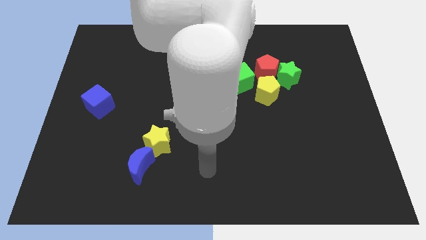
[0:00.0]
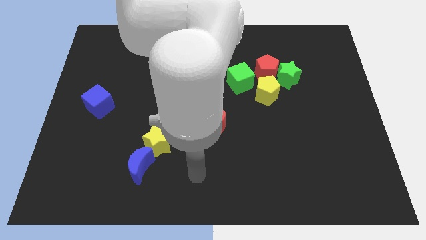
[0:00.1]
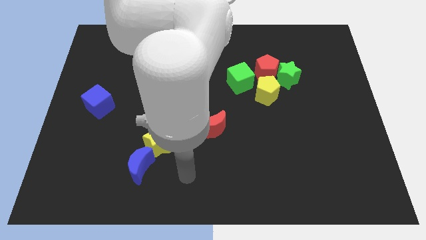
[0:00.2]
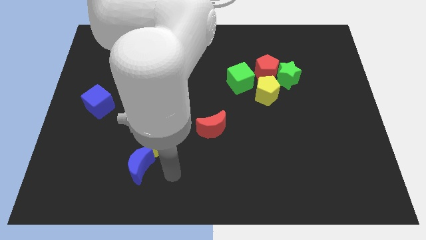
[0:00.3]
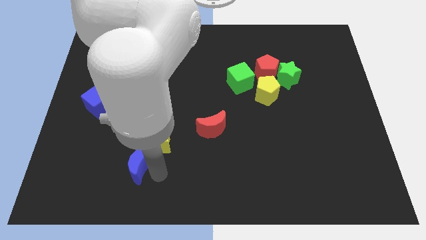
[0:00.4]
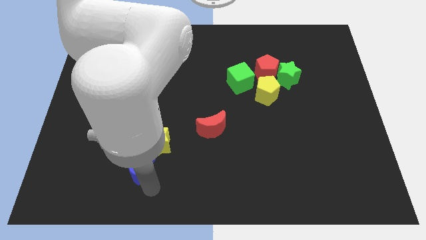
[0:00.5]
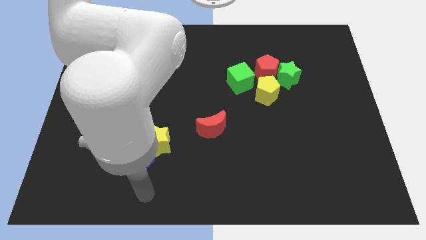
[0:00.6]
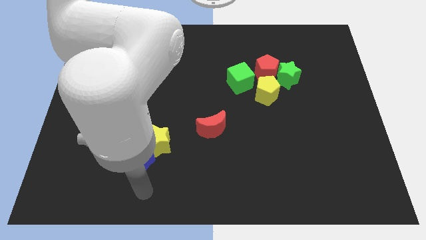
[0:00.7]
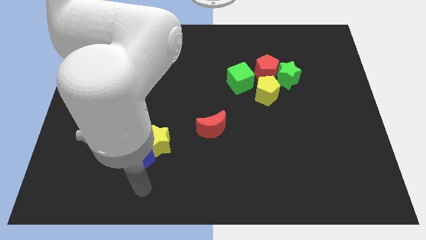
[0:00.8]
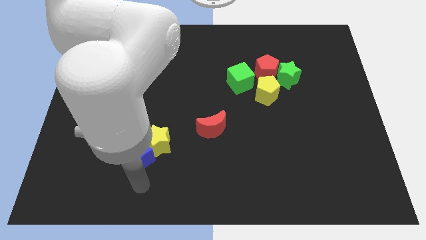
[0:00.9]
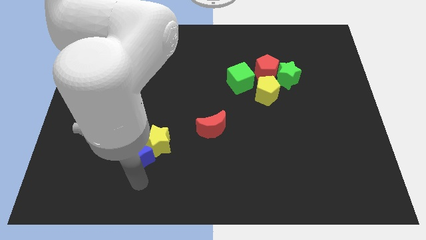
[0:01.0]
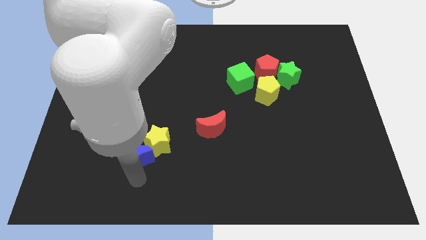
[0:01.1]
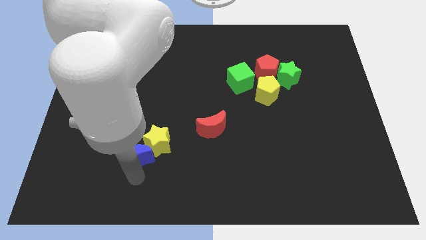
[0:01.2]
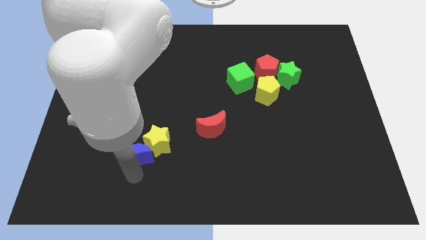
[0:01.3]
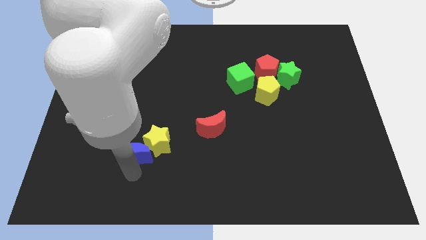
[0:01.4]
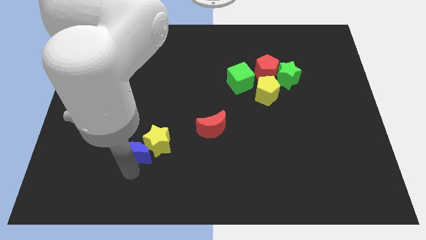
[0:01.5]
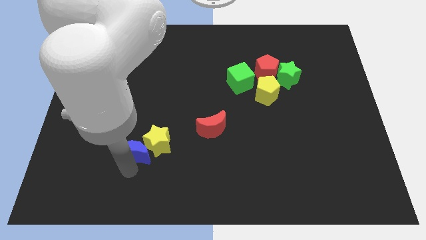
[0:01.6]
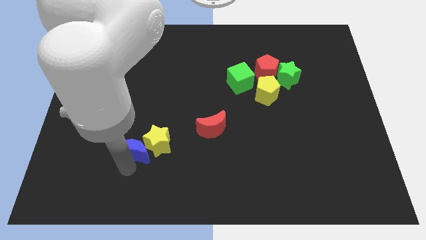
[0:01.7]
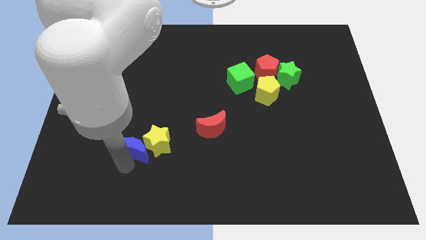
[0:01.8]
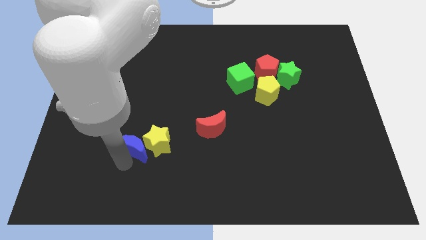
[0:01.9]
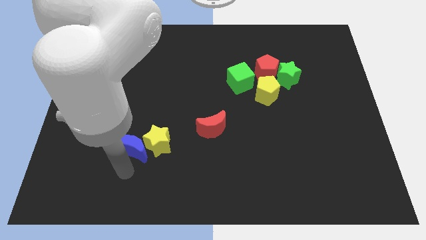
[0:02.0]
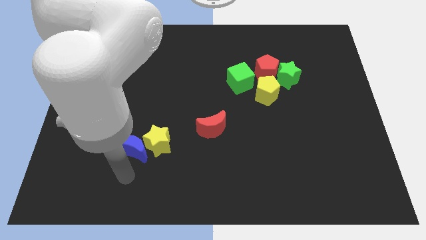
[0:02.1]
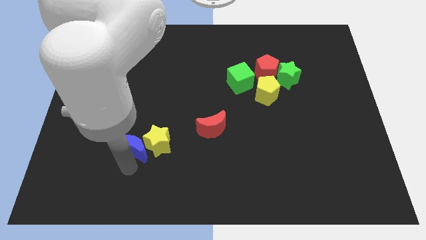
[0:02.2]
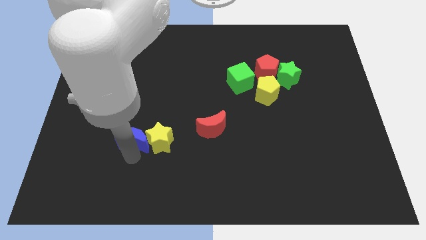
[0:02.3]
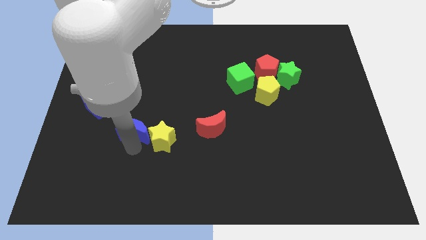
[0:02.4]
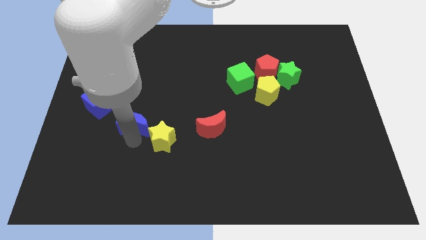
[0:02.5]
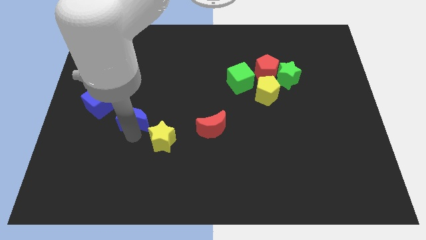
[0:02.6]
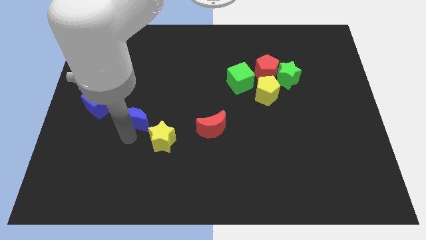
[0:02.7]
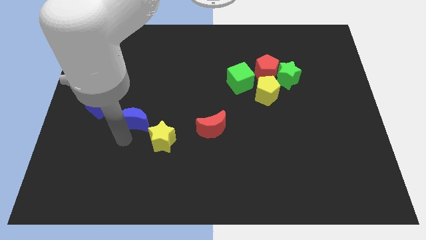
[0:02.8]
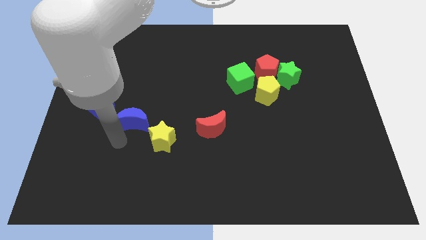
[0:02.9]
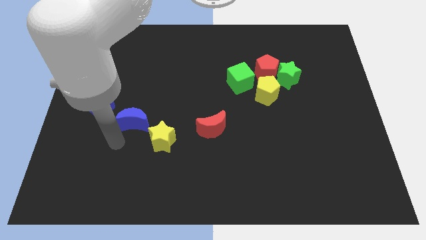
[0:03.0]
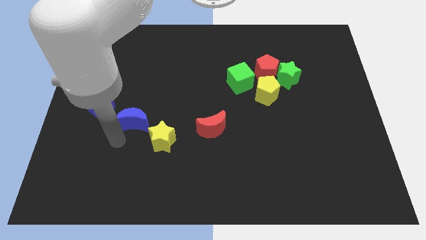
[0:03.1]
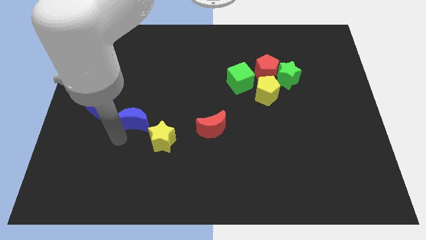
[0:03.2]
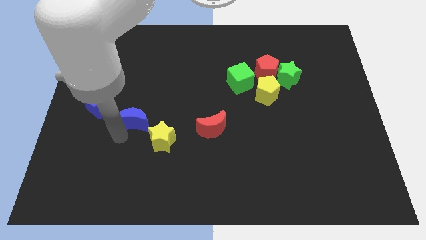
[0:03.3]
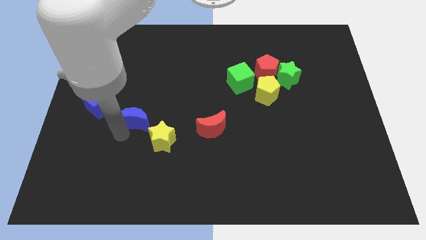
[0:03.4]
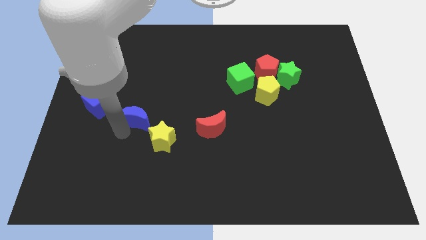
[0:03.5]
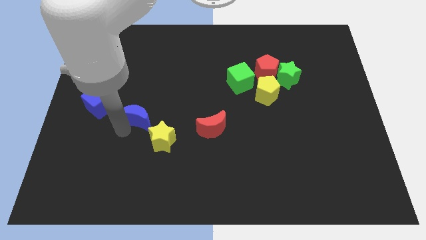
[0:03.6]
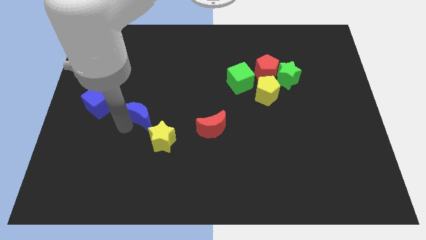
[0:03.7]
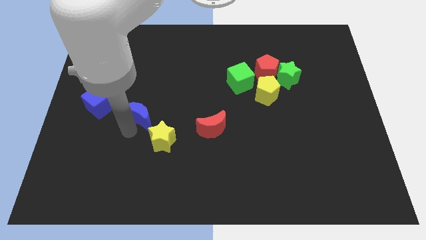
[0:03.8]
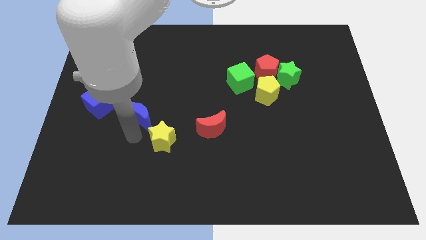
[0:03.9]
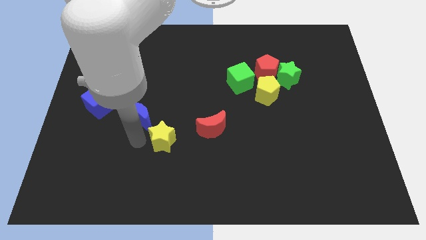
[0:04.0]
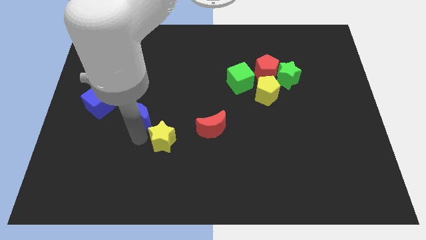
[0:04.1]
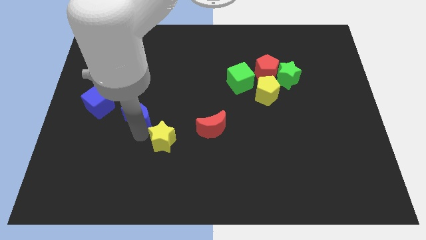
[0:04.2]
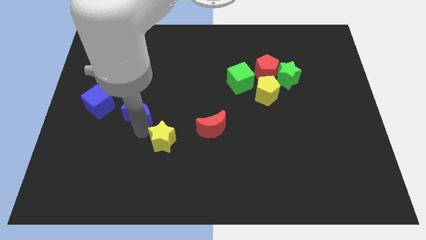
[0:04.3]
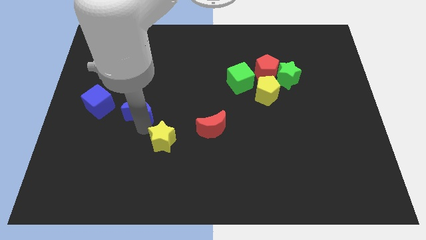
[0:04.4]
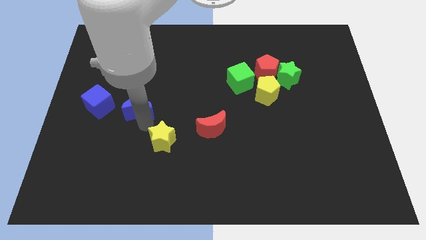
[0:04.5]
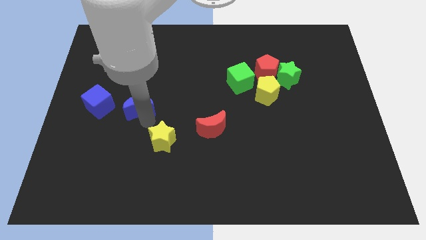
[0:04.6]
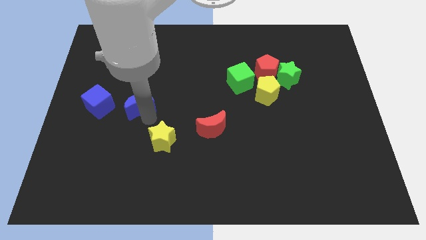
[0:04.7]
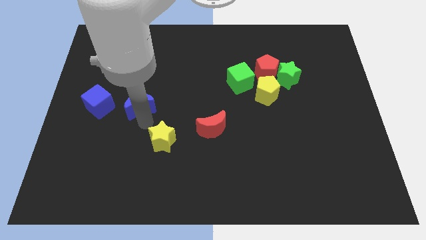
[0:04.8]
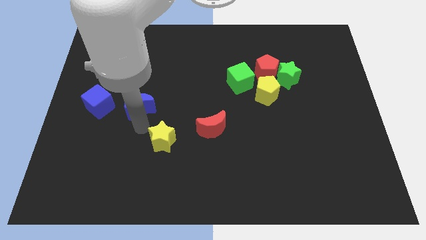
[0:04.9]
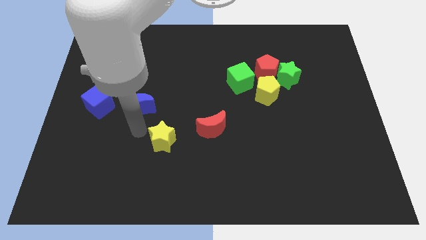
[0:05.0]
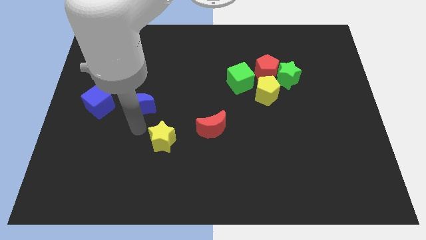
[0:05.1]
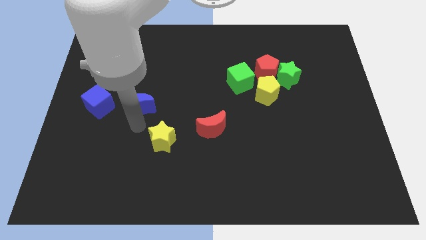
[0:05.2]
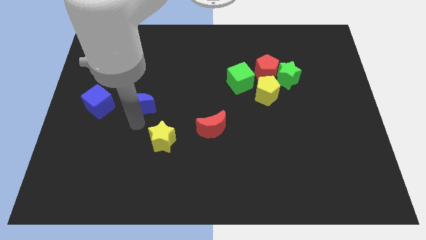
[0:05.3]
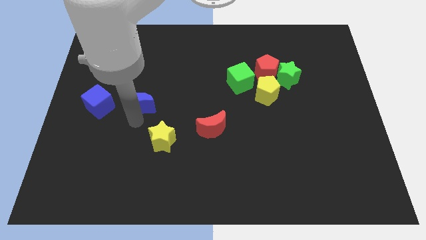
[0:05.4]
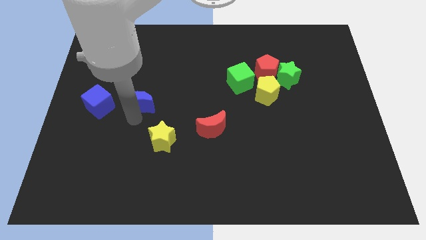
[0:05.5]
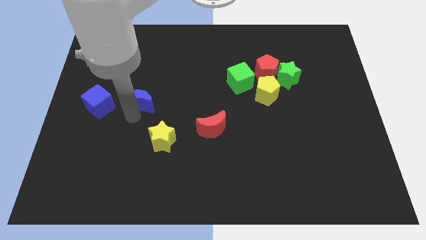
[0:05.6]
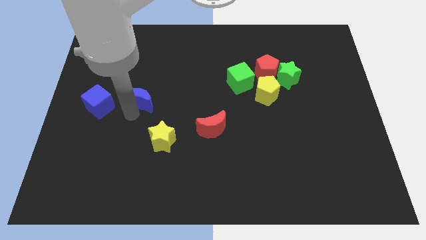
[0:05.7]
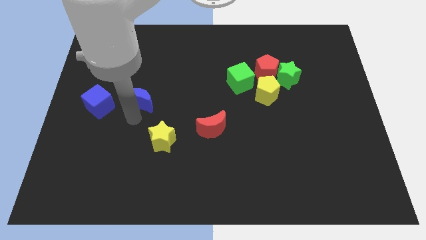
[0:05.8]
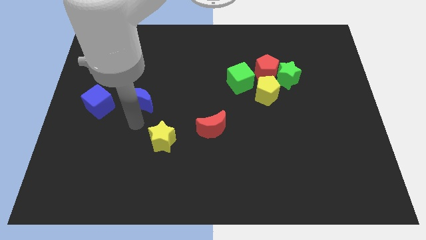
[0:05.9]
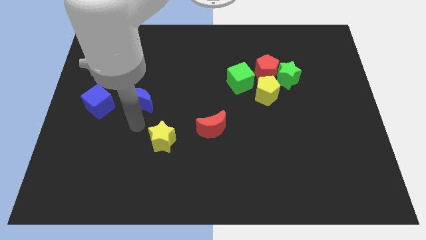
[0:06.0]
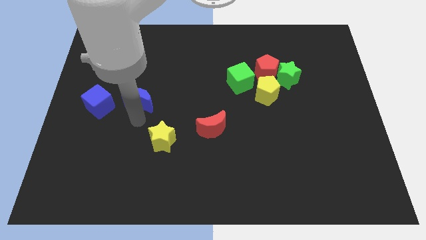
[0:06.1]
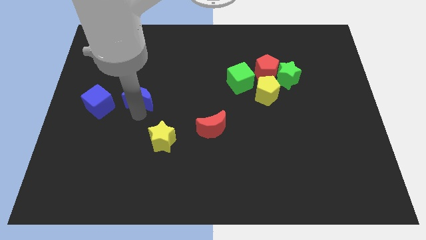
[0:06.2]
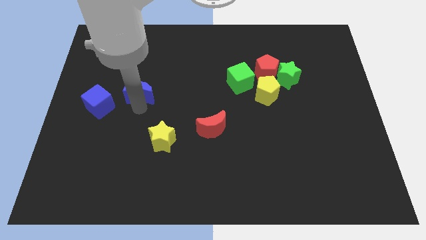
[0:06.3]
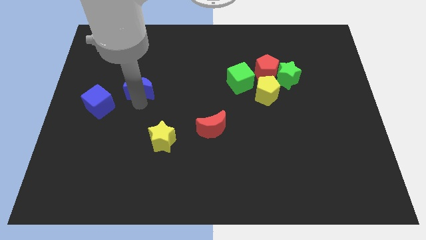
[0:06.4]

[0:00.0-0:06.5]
move the blue moon up

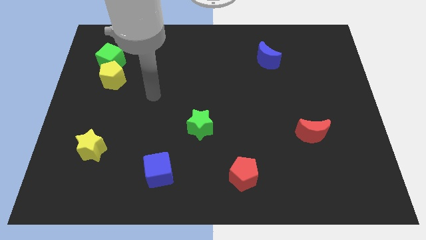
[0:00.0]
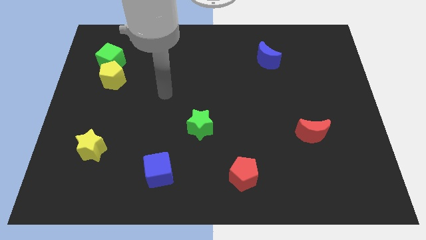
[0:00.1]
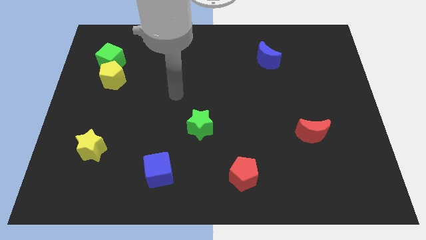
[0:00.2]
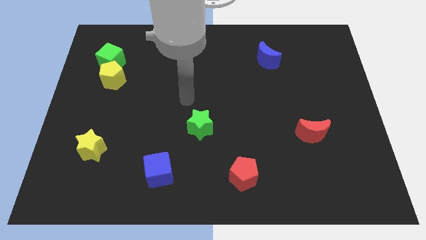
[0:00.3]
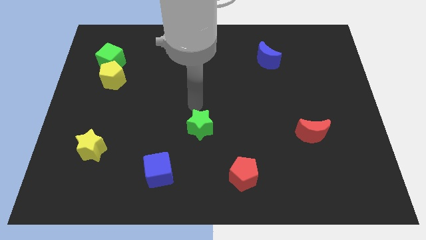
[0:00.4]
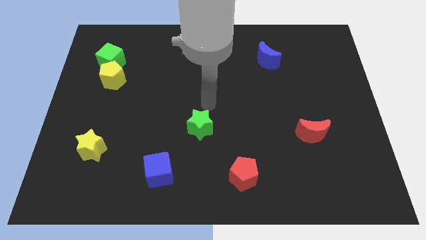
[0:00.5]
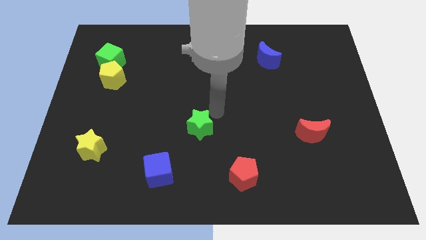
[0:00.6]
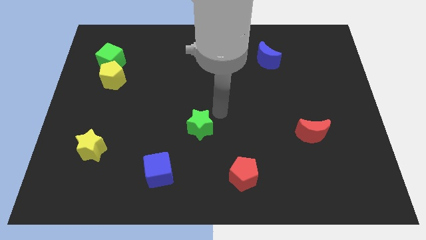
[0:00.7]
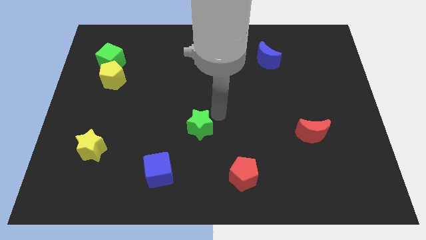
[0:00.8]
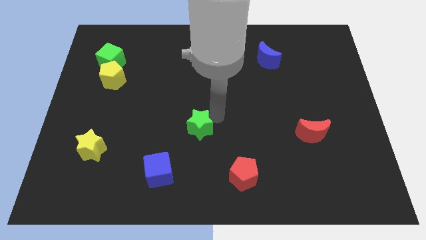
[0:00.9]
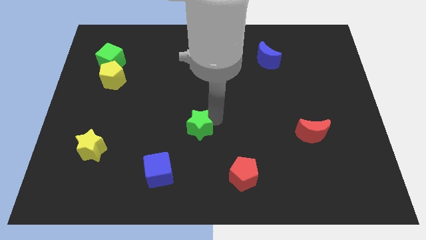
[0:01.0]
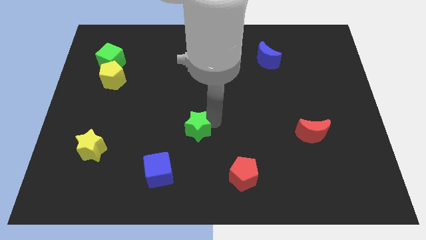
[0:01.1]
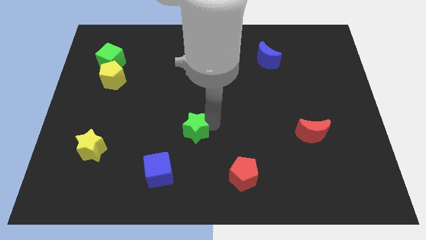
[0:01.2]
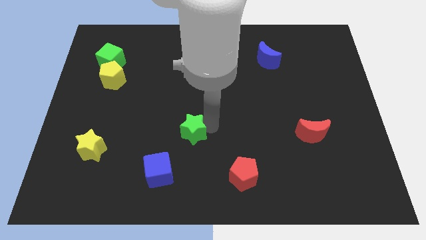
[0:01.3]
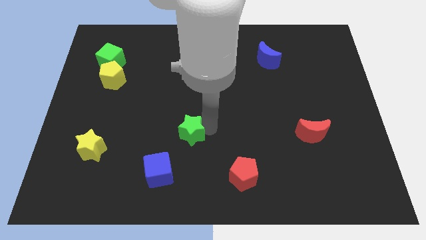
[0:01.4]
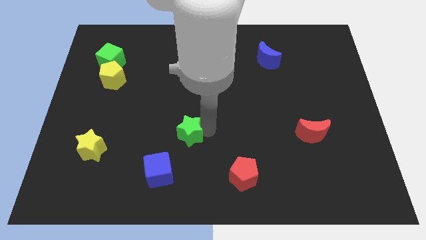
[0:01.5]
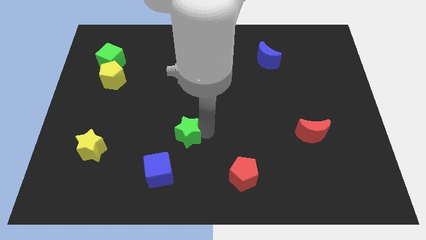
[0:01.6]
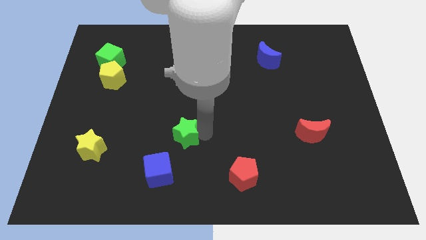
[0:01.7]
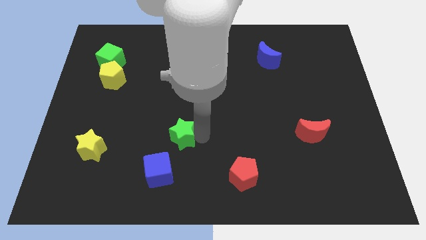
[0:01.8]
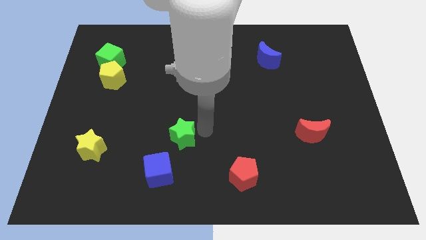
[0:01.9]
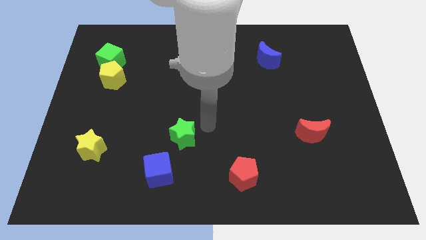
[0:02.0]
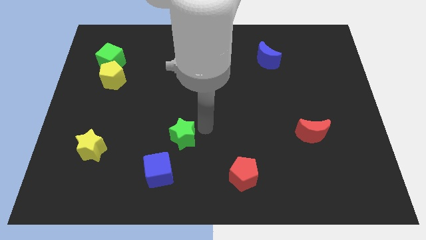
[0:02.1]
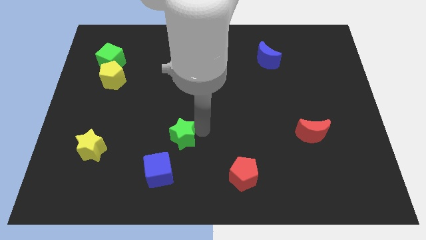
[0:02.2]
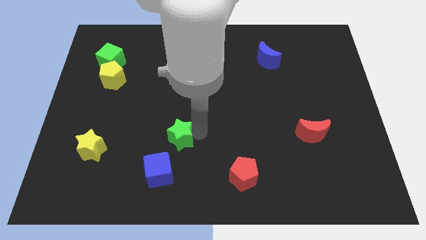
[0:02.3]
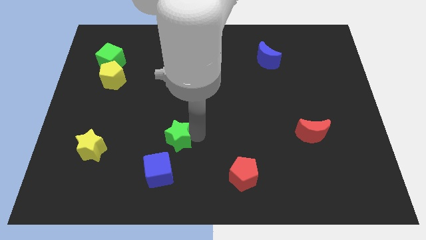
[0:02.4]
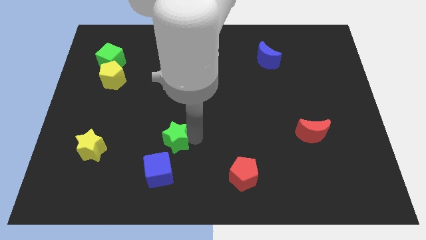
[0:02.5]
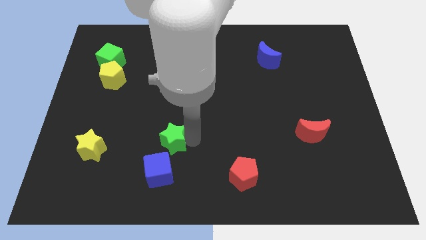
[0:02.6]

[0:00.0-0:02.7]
move the green star a bit downwards and left diagonally
